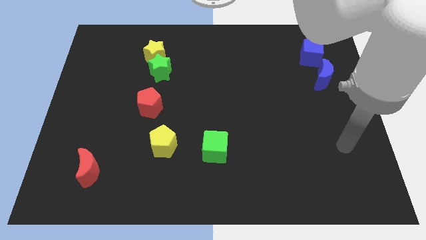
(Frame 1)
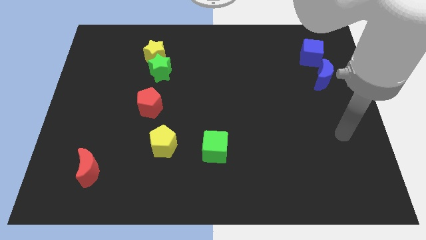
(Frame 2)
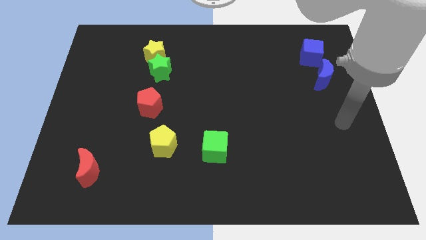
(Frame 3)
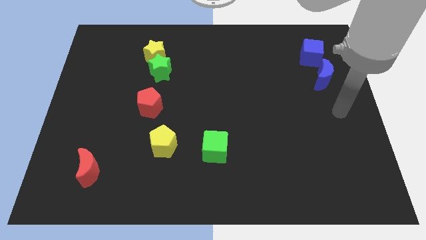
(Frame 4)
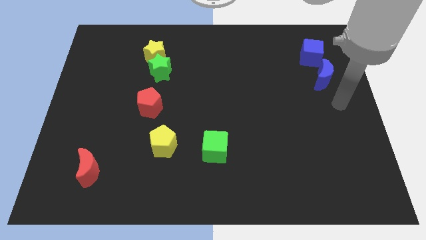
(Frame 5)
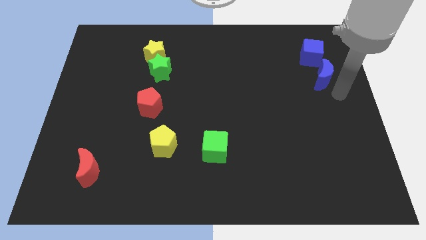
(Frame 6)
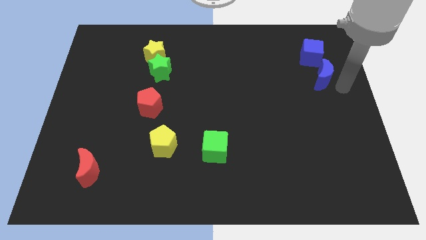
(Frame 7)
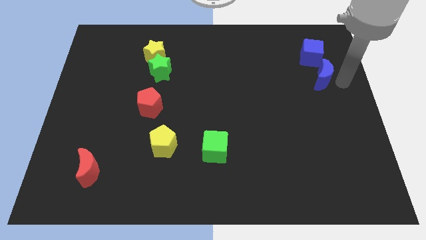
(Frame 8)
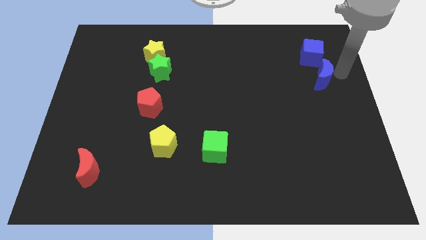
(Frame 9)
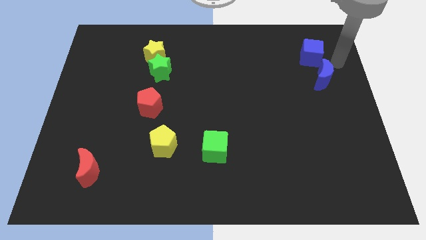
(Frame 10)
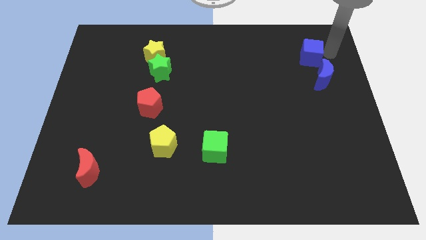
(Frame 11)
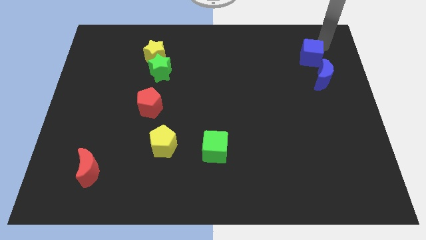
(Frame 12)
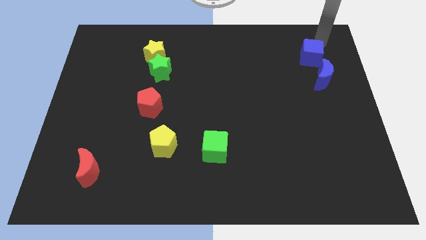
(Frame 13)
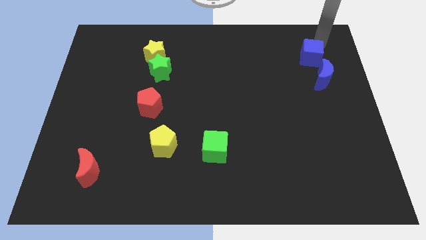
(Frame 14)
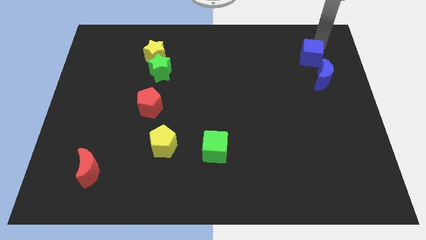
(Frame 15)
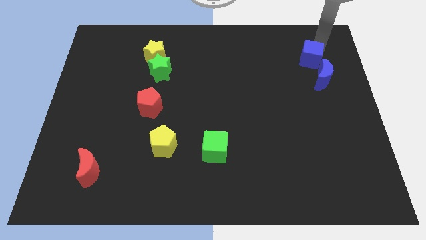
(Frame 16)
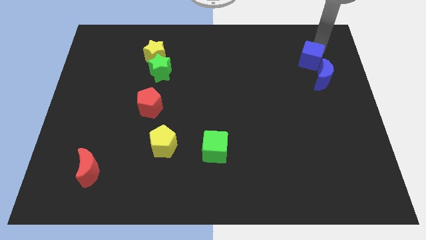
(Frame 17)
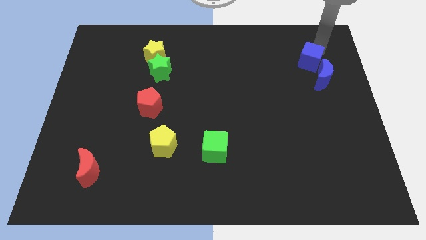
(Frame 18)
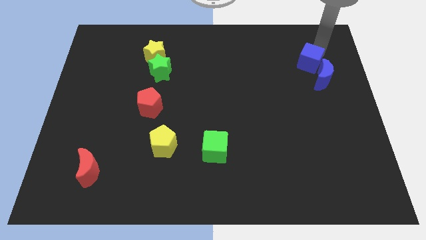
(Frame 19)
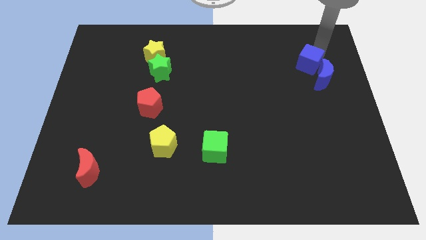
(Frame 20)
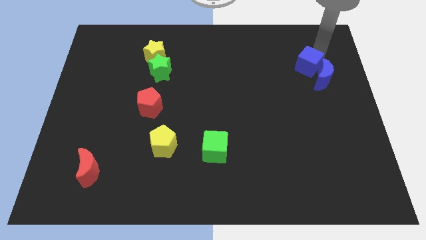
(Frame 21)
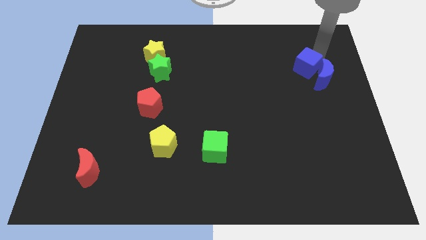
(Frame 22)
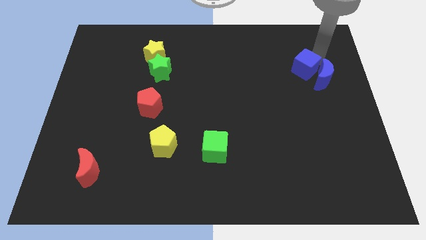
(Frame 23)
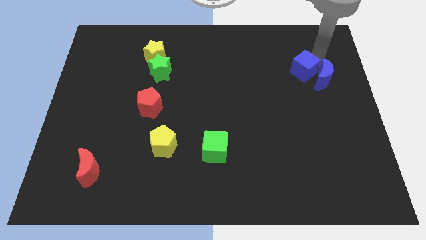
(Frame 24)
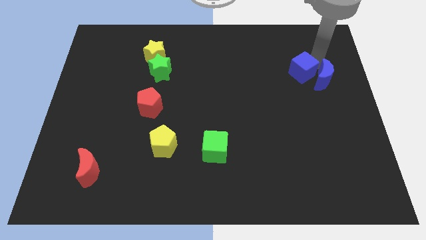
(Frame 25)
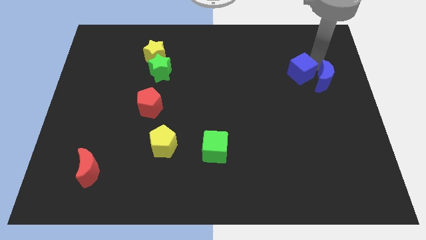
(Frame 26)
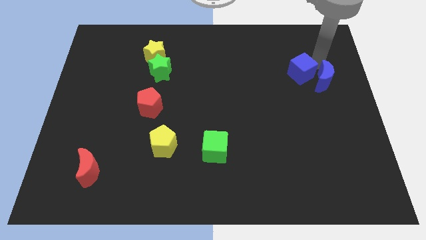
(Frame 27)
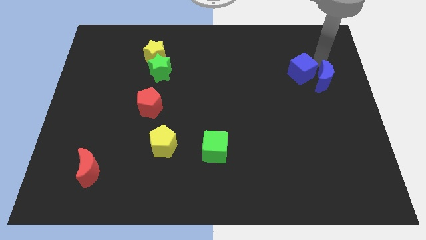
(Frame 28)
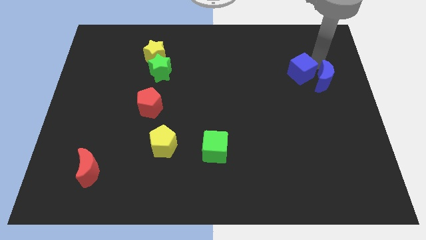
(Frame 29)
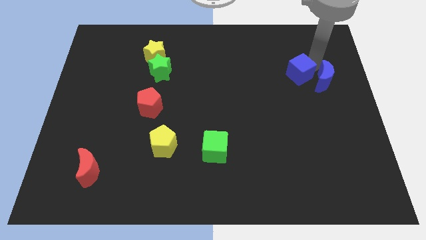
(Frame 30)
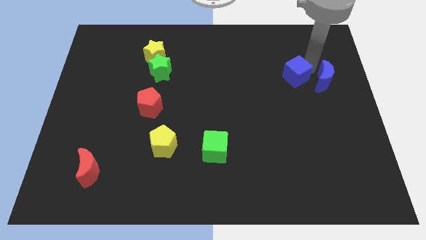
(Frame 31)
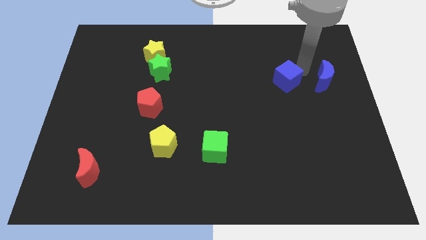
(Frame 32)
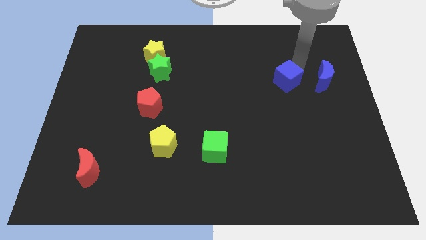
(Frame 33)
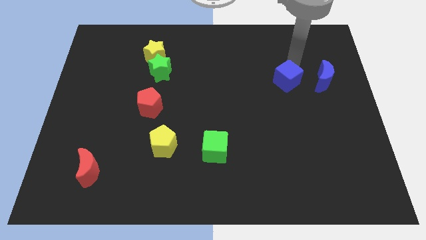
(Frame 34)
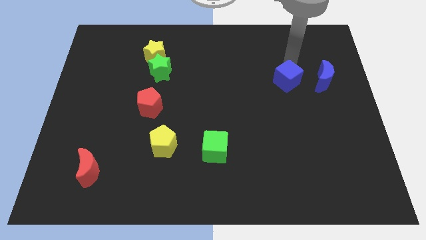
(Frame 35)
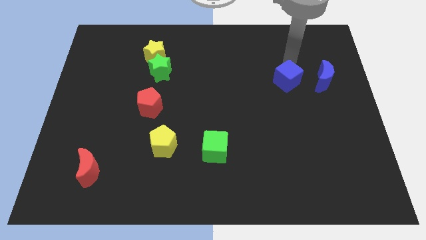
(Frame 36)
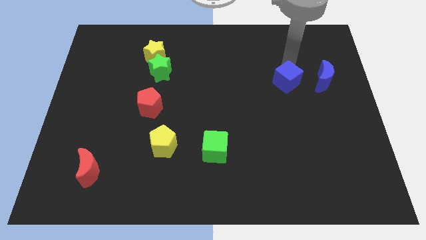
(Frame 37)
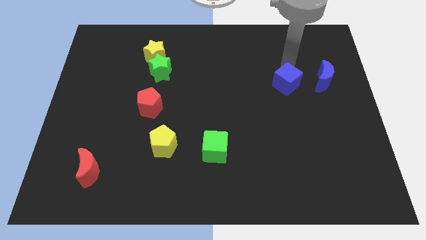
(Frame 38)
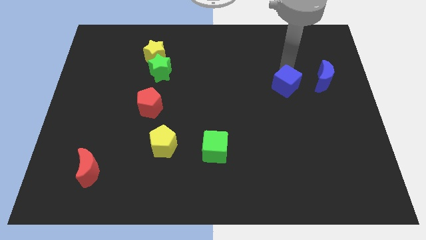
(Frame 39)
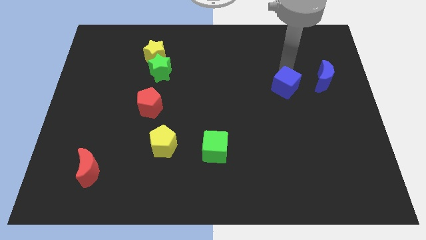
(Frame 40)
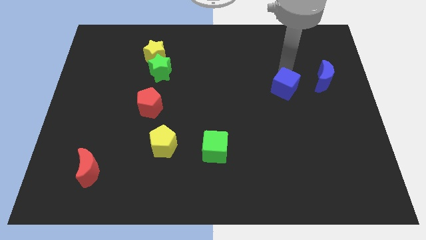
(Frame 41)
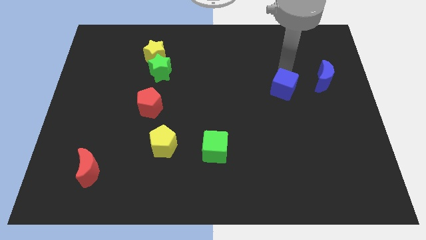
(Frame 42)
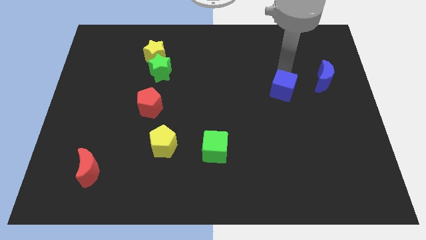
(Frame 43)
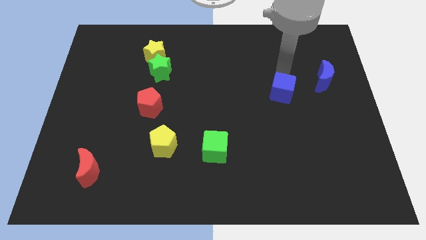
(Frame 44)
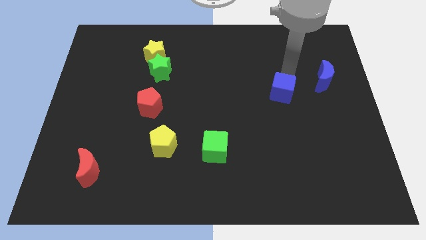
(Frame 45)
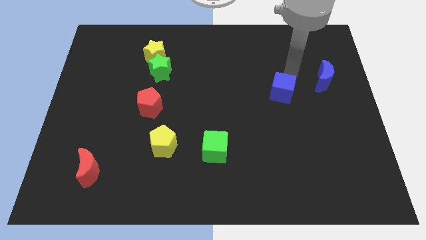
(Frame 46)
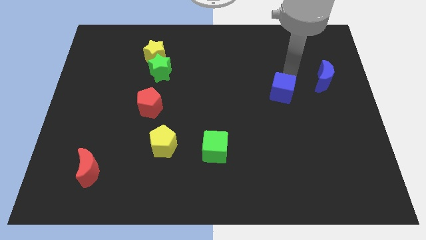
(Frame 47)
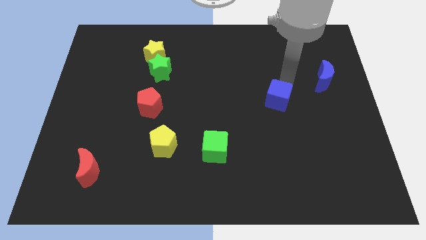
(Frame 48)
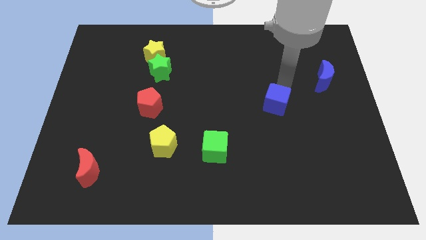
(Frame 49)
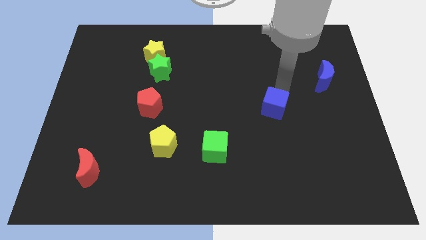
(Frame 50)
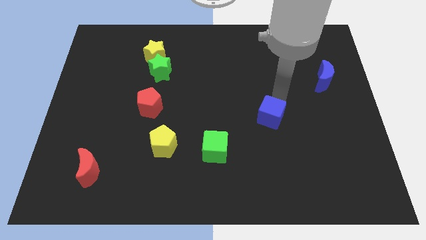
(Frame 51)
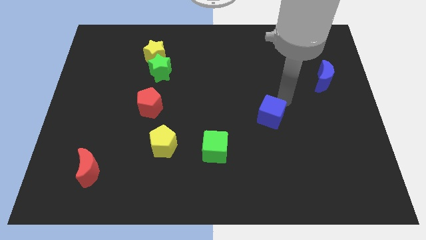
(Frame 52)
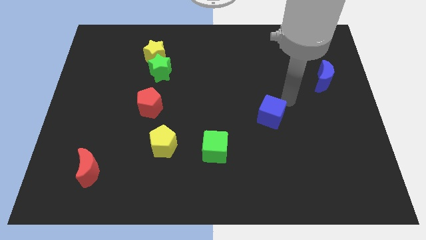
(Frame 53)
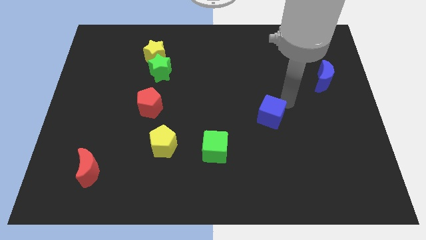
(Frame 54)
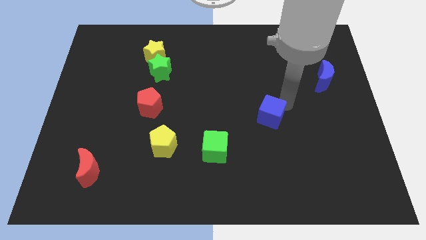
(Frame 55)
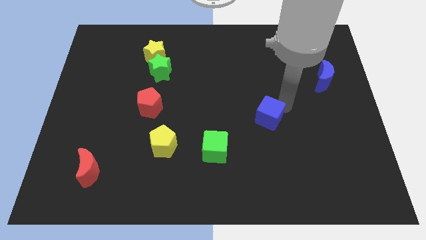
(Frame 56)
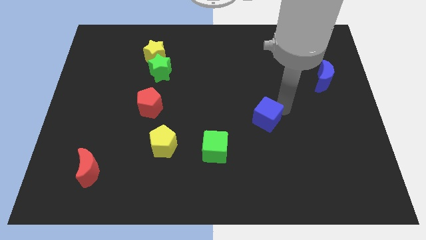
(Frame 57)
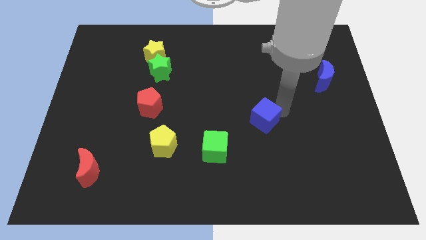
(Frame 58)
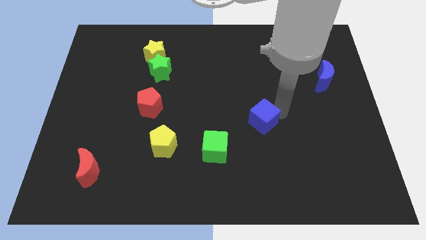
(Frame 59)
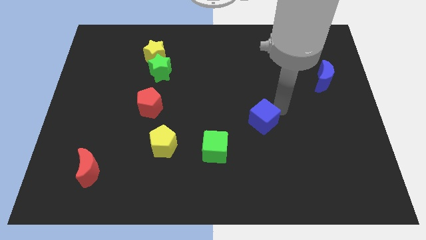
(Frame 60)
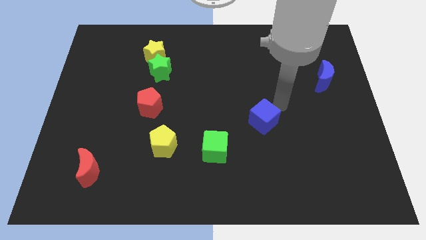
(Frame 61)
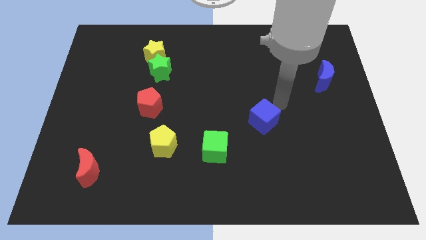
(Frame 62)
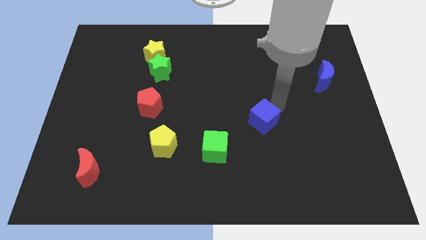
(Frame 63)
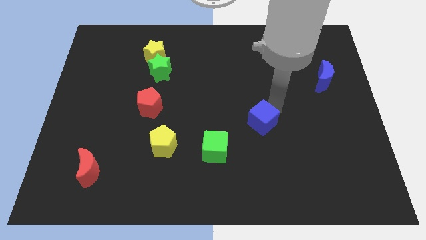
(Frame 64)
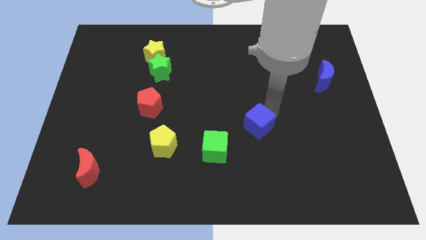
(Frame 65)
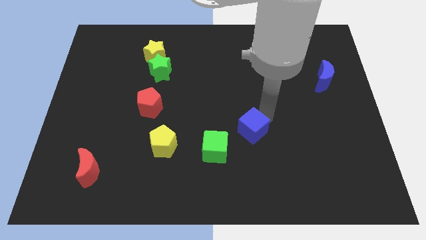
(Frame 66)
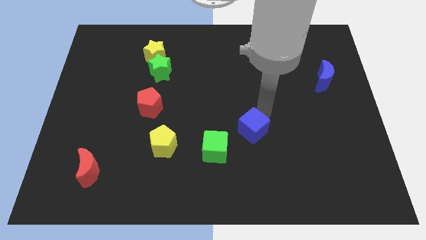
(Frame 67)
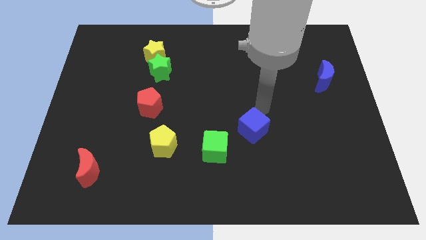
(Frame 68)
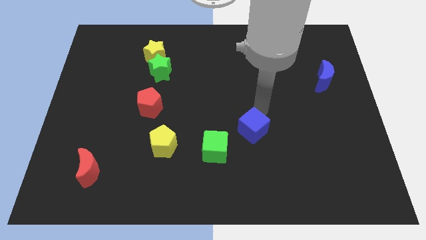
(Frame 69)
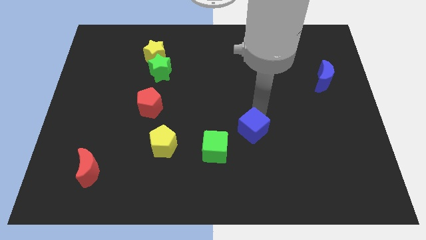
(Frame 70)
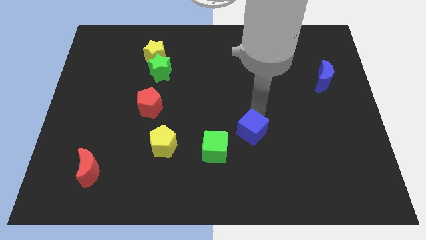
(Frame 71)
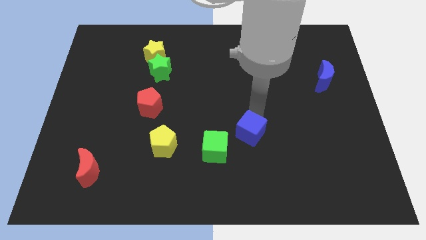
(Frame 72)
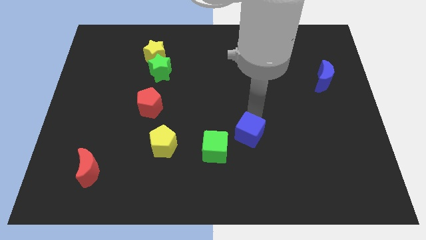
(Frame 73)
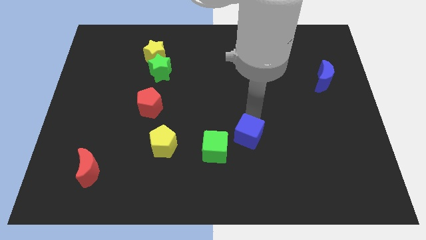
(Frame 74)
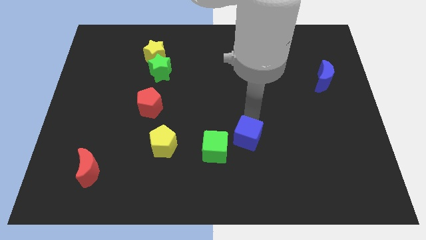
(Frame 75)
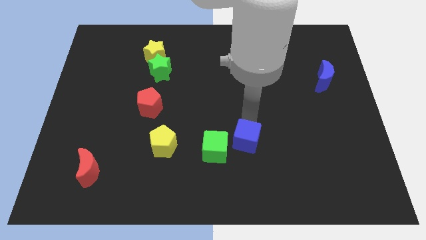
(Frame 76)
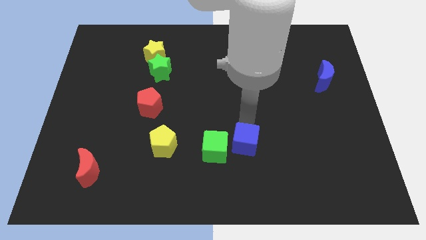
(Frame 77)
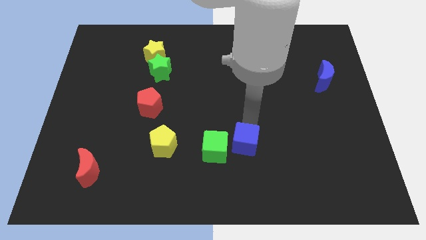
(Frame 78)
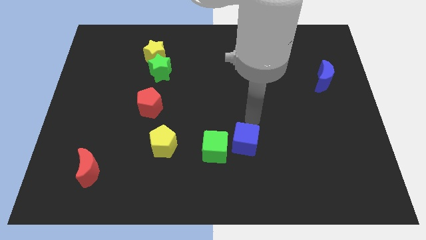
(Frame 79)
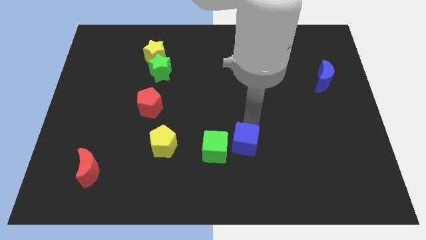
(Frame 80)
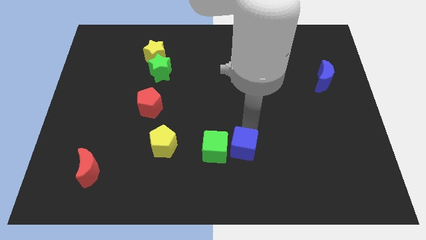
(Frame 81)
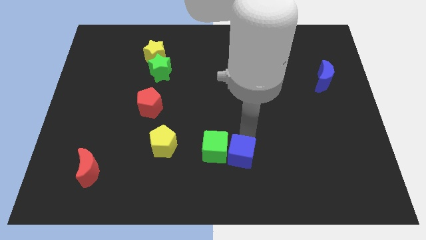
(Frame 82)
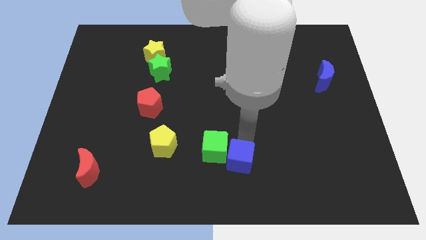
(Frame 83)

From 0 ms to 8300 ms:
slide the blue cube to the bottom side
